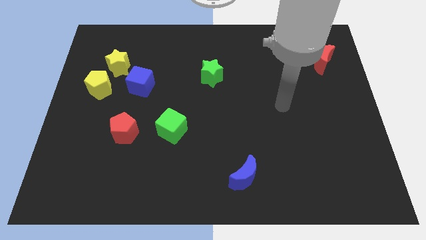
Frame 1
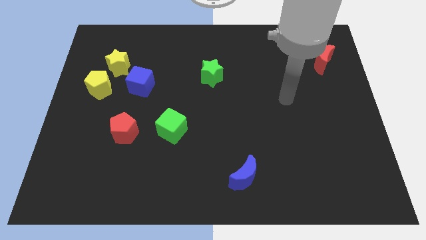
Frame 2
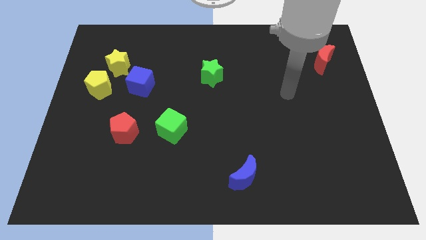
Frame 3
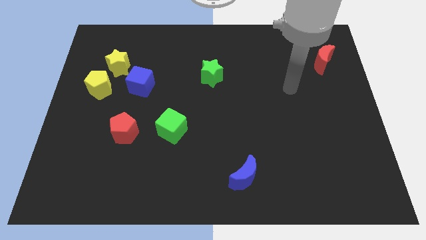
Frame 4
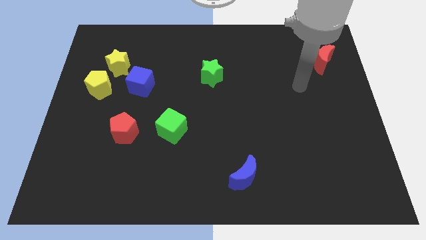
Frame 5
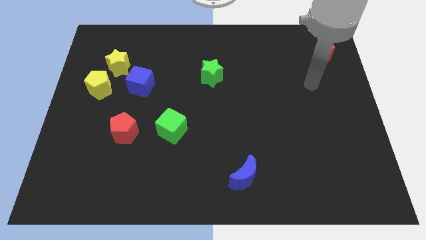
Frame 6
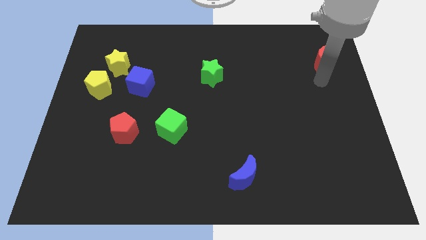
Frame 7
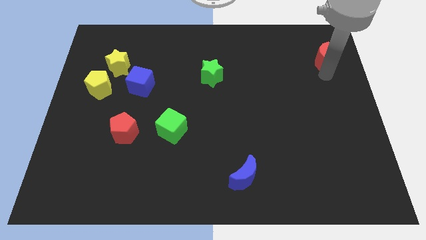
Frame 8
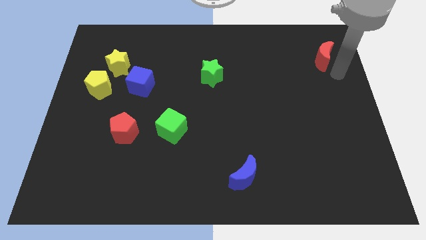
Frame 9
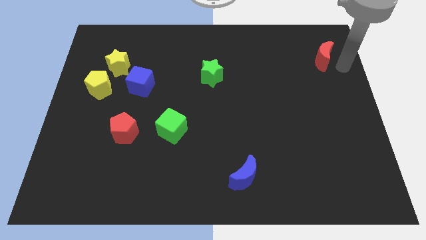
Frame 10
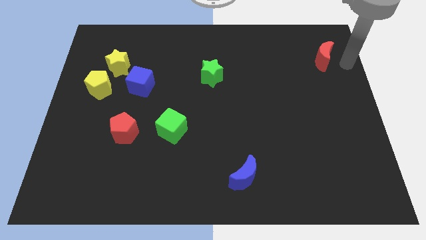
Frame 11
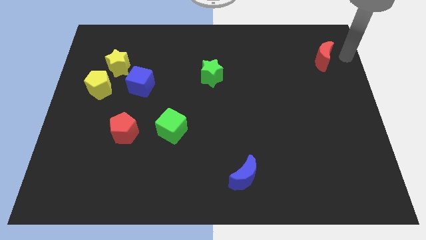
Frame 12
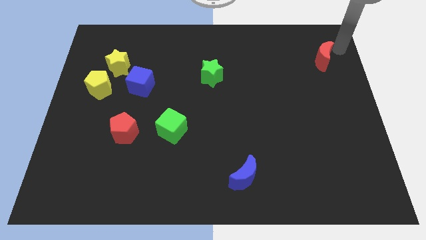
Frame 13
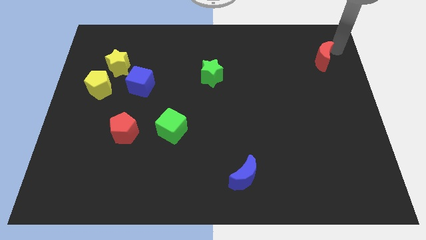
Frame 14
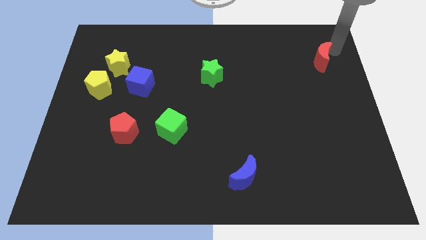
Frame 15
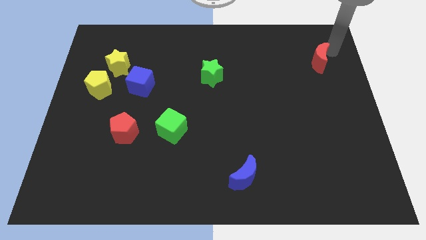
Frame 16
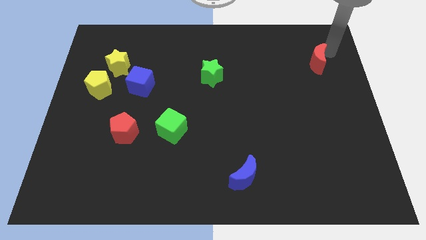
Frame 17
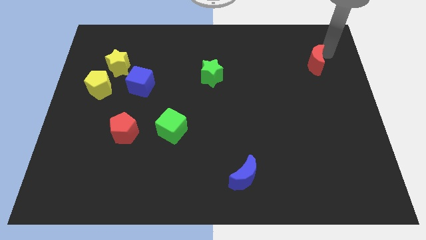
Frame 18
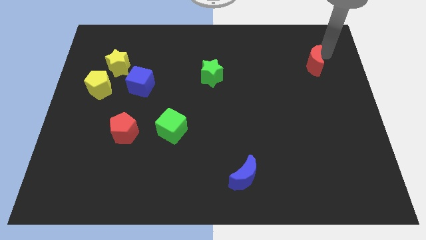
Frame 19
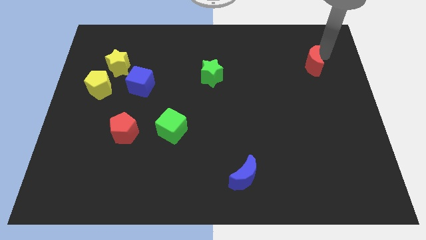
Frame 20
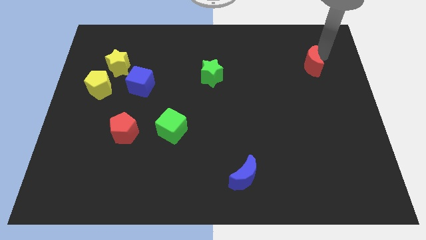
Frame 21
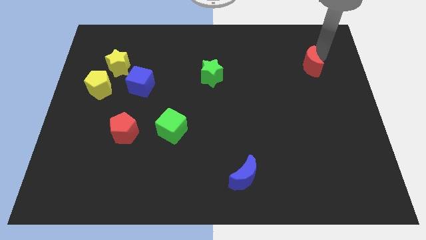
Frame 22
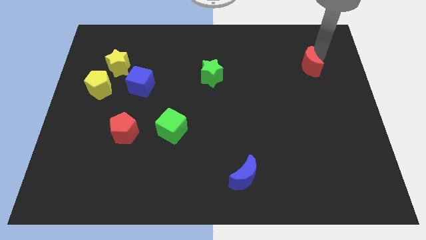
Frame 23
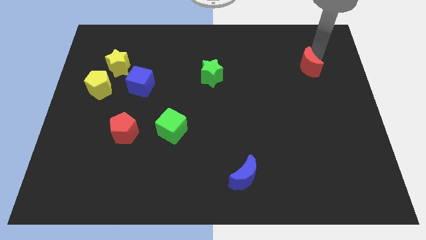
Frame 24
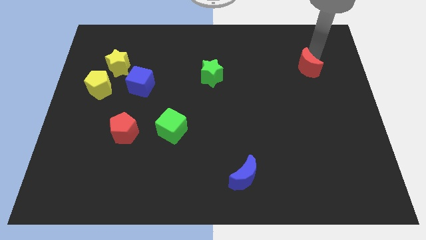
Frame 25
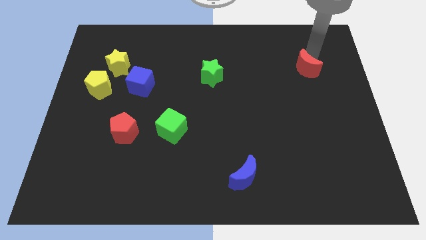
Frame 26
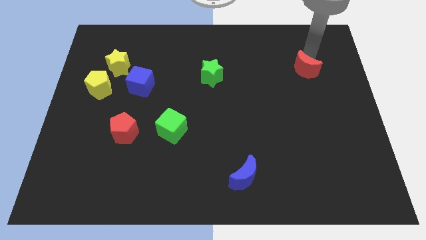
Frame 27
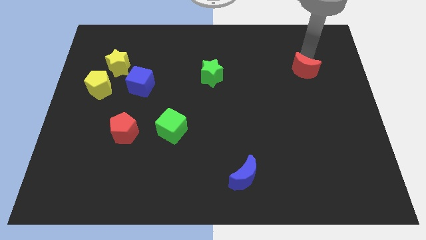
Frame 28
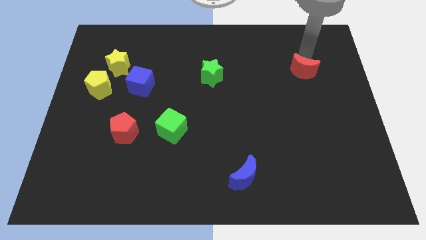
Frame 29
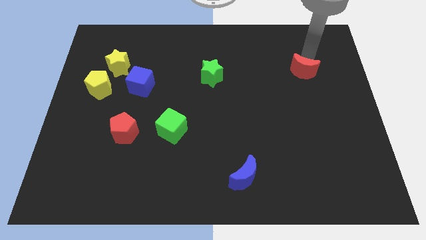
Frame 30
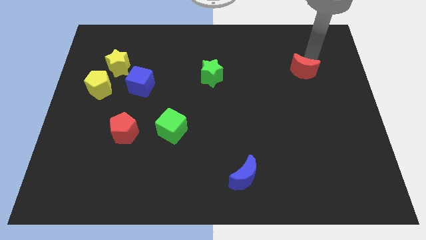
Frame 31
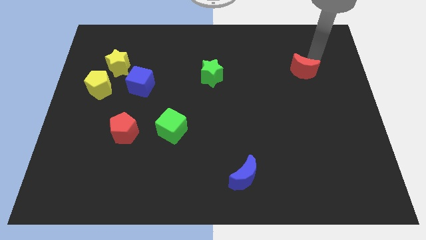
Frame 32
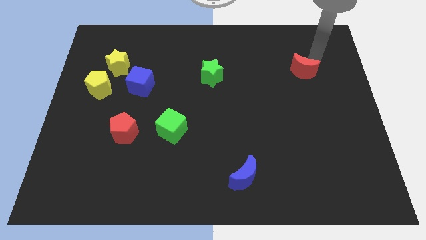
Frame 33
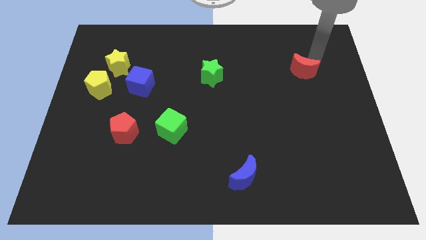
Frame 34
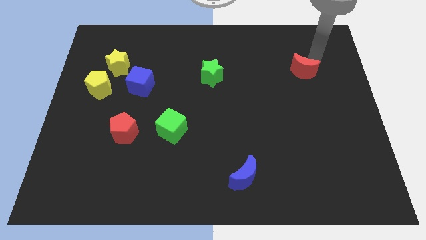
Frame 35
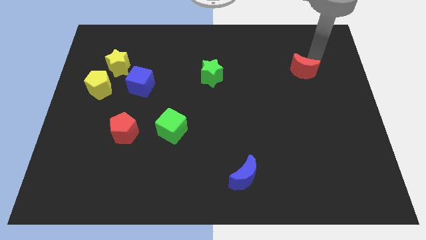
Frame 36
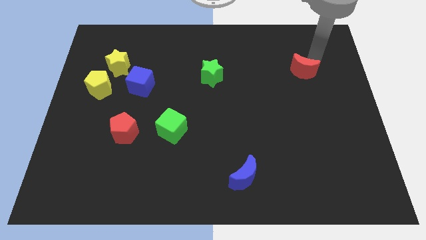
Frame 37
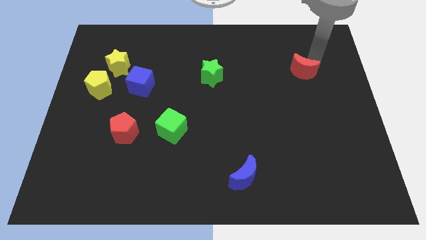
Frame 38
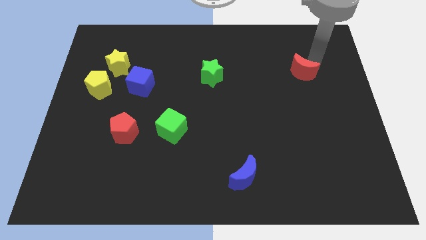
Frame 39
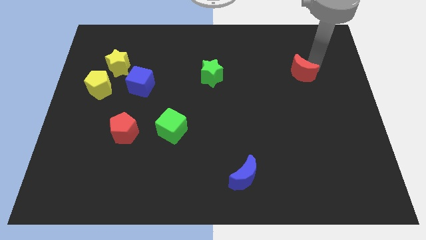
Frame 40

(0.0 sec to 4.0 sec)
slide the red moon slightly down and left

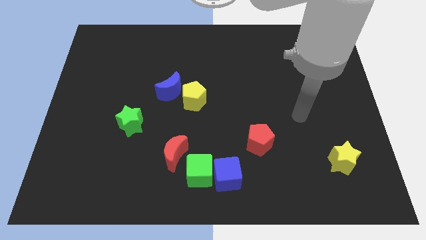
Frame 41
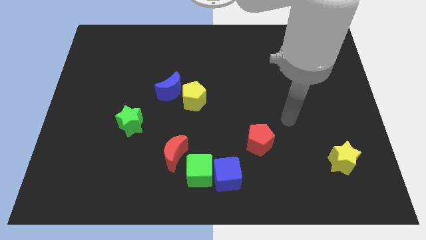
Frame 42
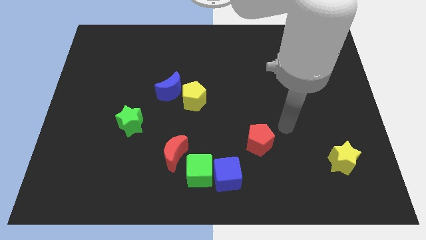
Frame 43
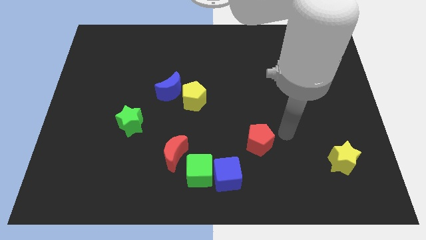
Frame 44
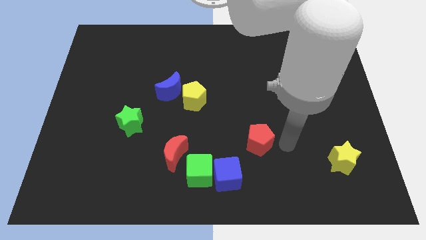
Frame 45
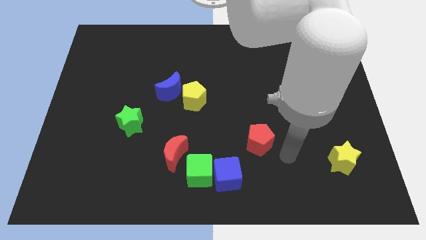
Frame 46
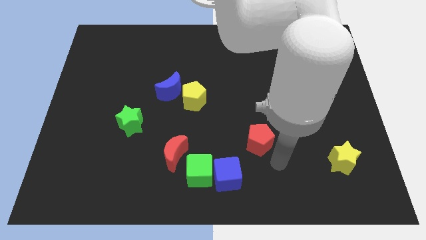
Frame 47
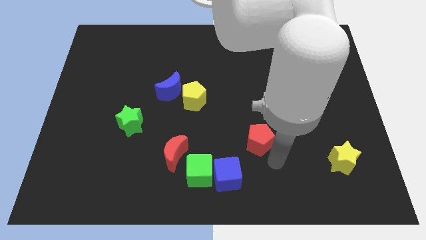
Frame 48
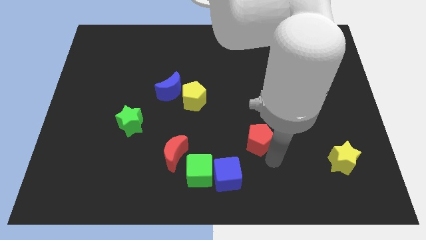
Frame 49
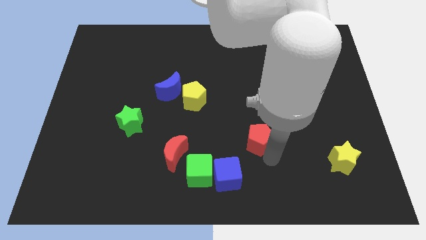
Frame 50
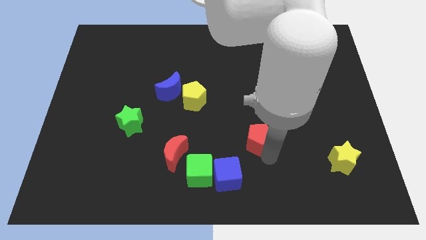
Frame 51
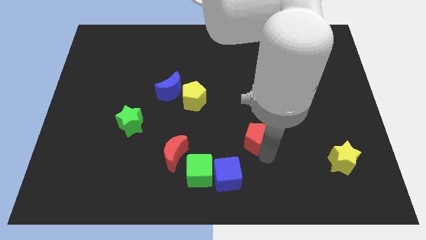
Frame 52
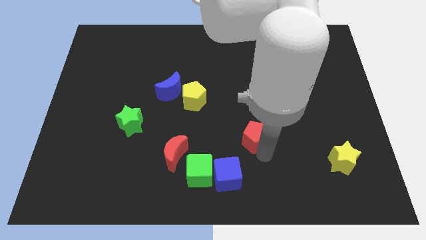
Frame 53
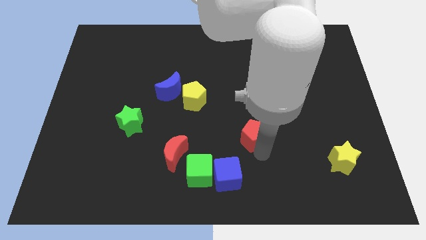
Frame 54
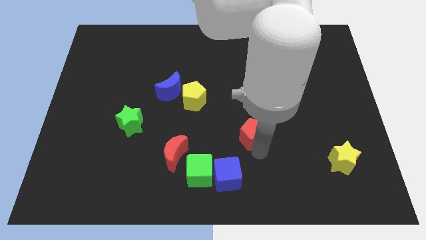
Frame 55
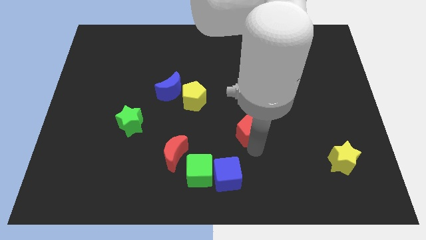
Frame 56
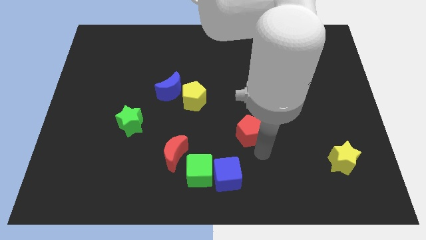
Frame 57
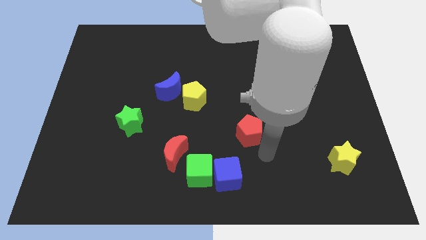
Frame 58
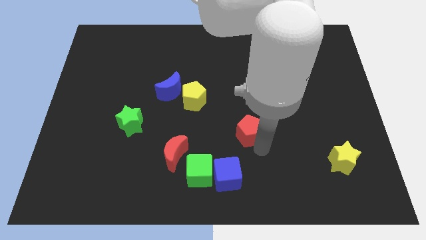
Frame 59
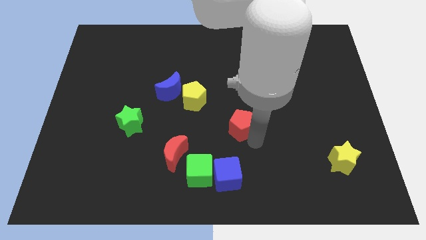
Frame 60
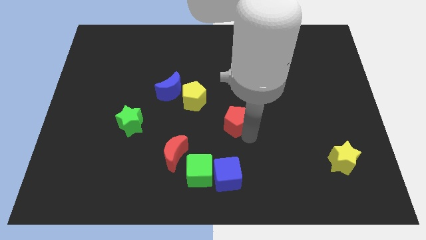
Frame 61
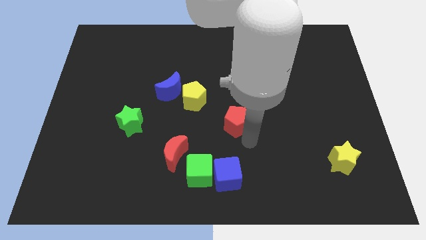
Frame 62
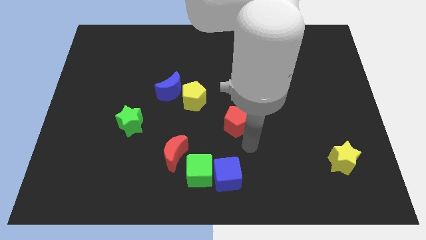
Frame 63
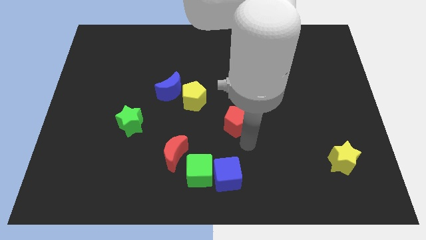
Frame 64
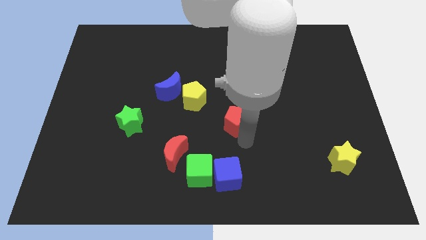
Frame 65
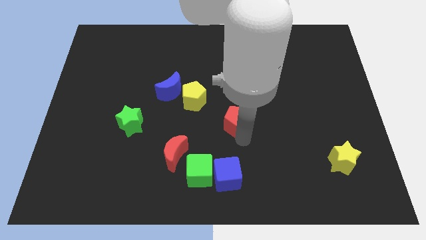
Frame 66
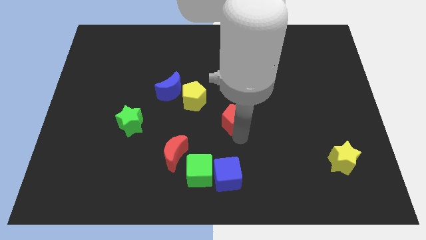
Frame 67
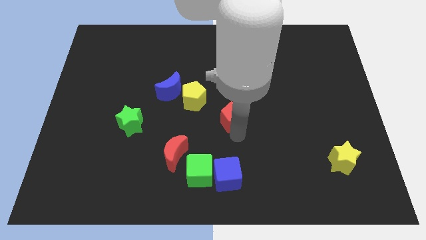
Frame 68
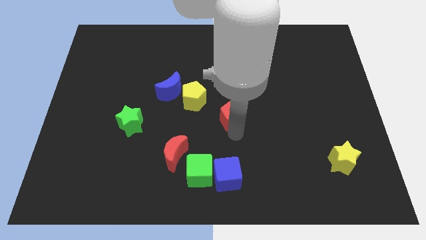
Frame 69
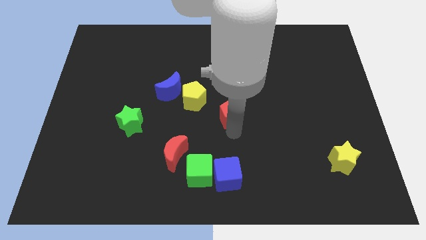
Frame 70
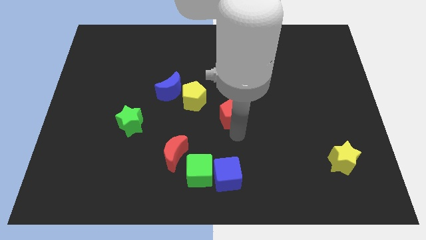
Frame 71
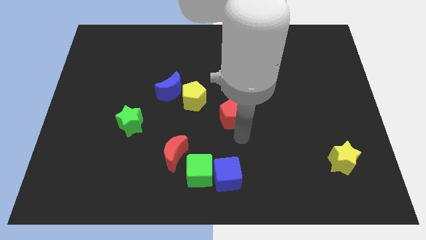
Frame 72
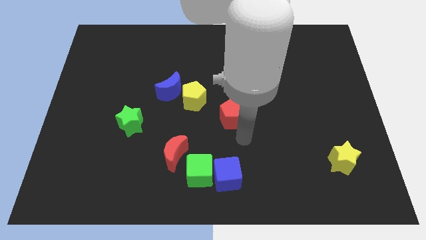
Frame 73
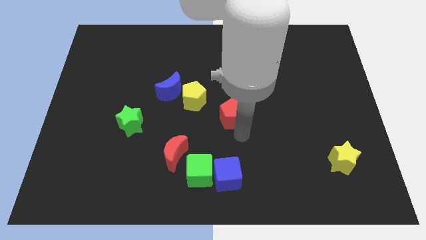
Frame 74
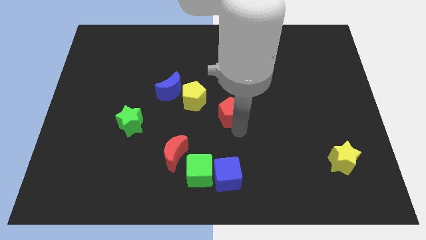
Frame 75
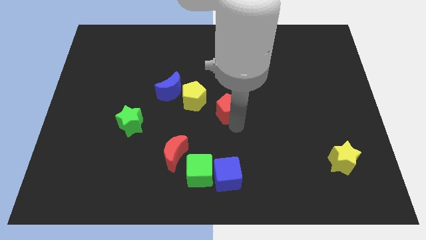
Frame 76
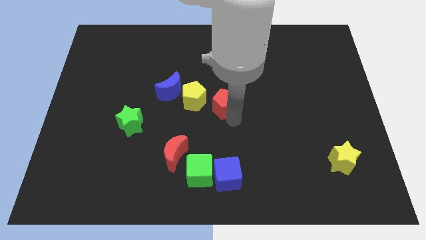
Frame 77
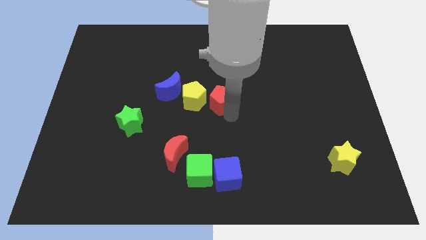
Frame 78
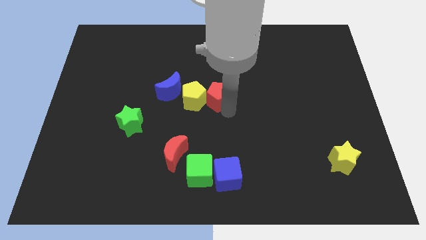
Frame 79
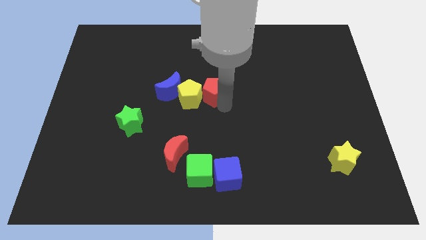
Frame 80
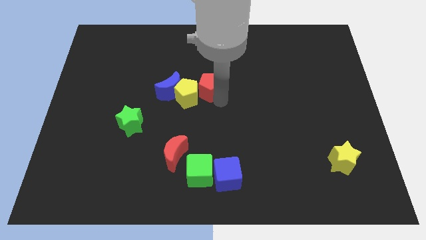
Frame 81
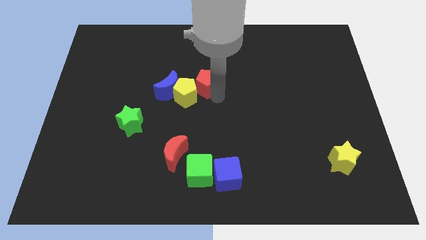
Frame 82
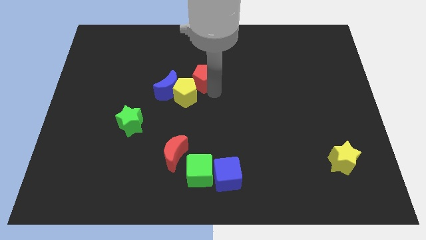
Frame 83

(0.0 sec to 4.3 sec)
move the red pentagon diagonally up and left
